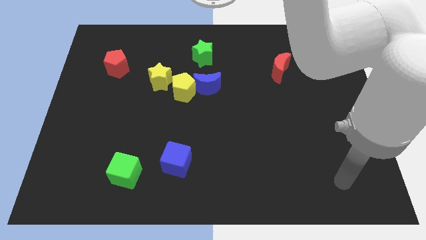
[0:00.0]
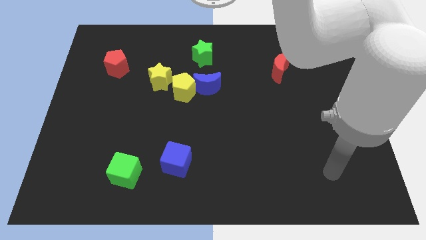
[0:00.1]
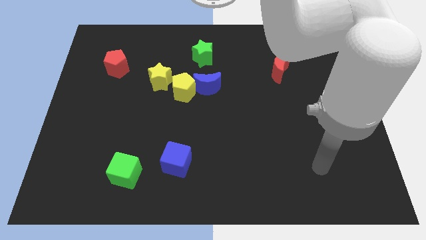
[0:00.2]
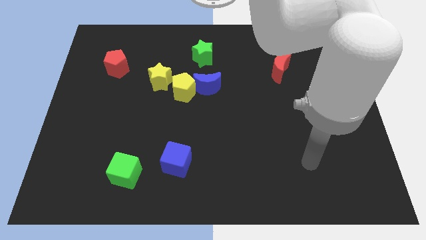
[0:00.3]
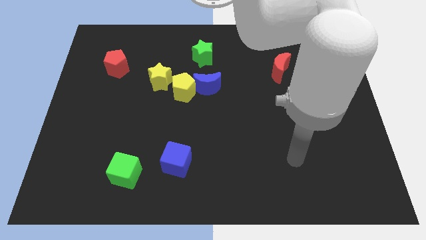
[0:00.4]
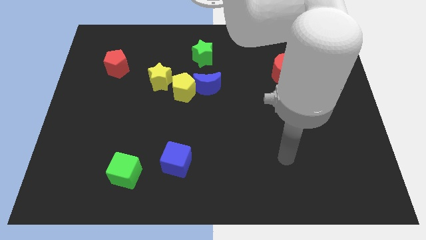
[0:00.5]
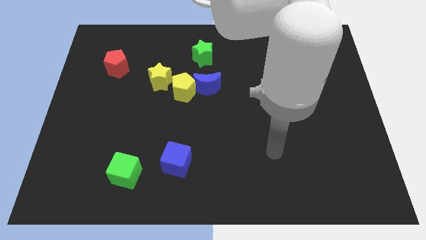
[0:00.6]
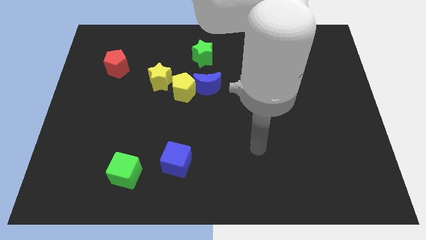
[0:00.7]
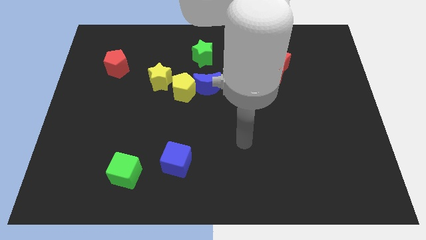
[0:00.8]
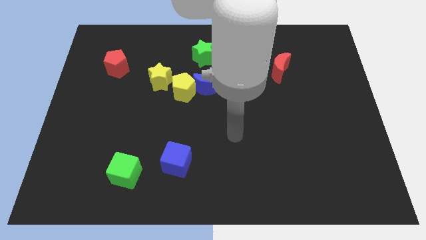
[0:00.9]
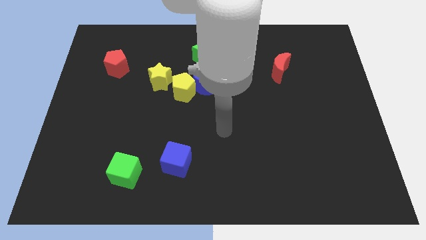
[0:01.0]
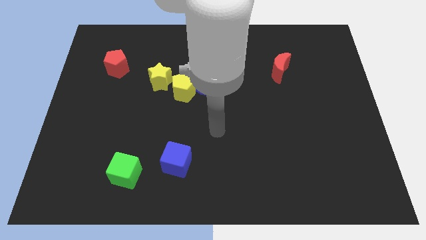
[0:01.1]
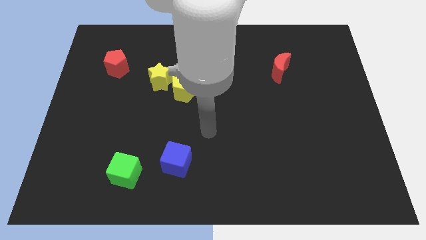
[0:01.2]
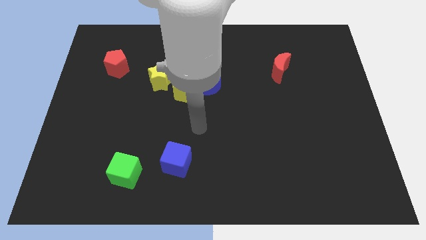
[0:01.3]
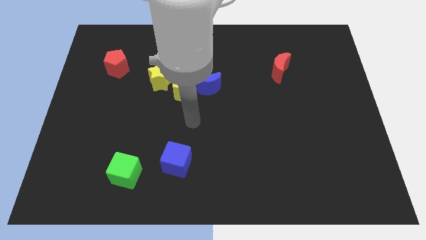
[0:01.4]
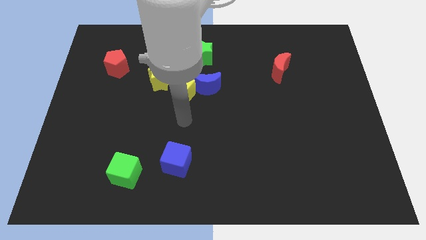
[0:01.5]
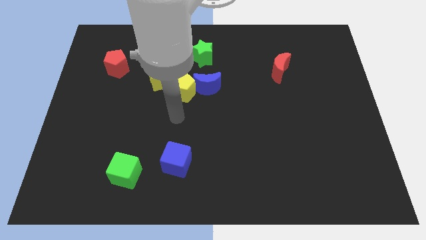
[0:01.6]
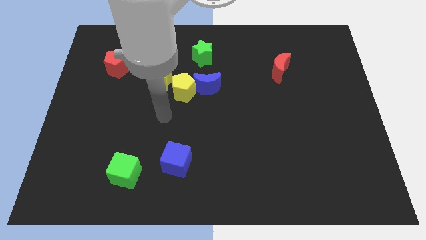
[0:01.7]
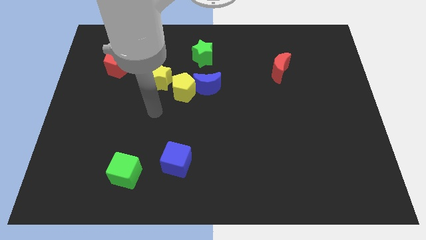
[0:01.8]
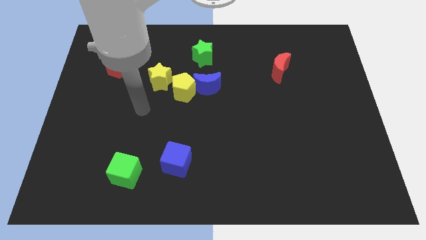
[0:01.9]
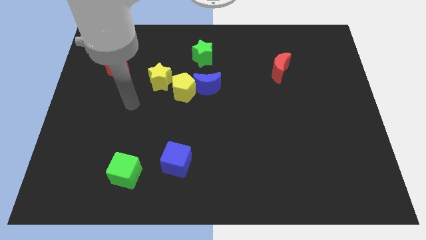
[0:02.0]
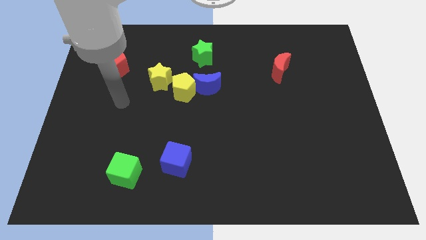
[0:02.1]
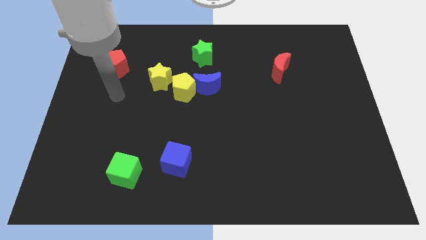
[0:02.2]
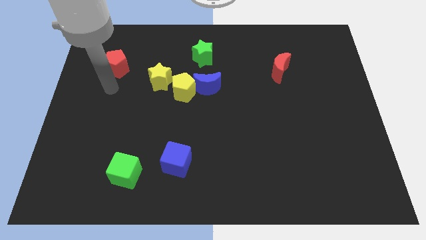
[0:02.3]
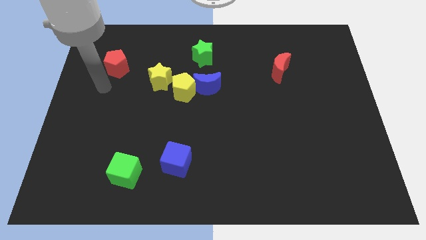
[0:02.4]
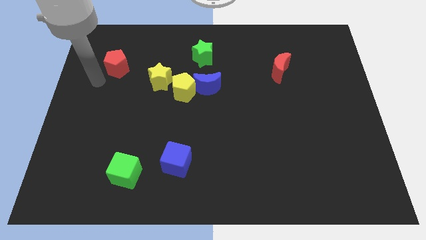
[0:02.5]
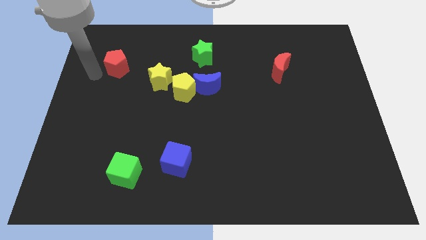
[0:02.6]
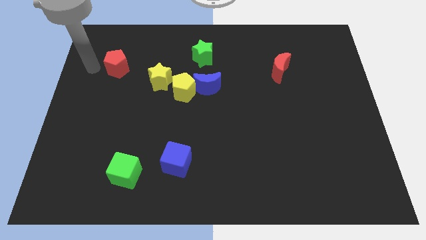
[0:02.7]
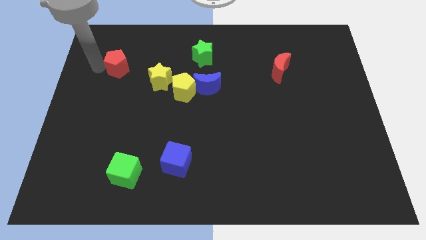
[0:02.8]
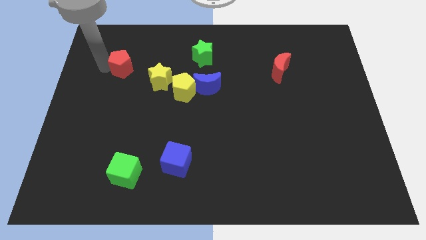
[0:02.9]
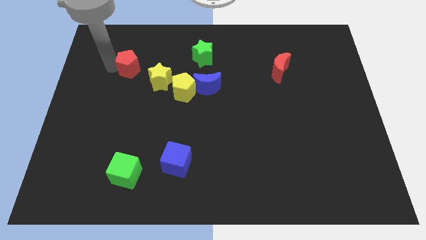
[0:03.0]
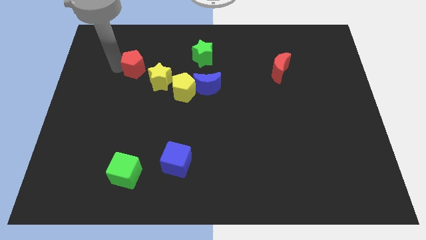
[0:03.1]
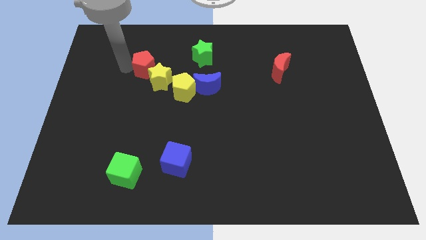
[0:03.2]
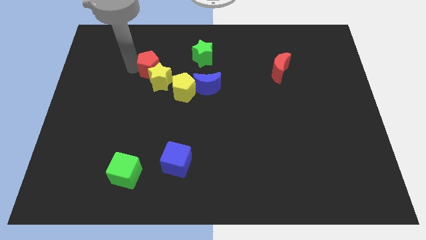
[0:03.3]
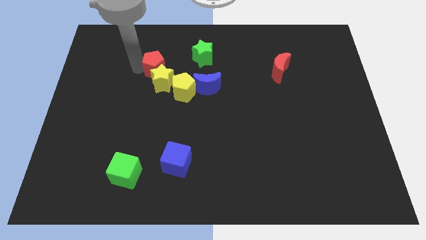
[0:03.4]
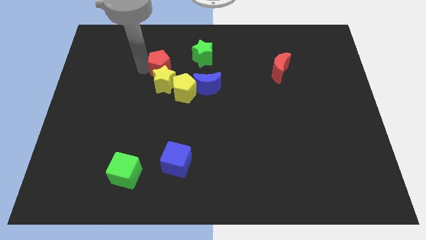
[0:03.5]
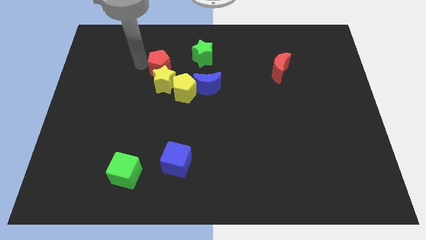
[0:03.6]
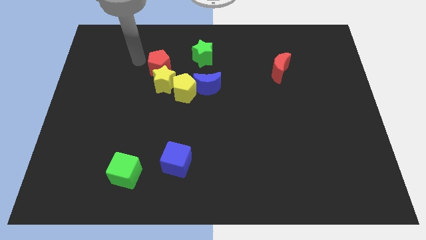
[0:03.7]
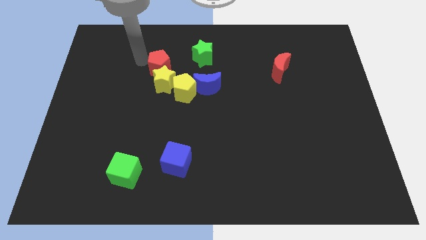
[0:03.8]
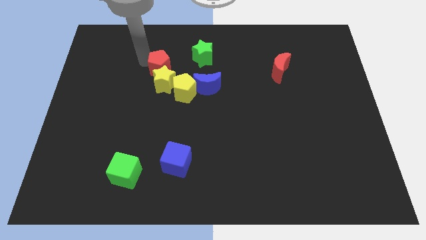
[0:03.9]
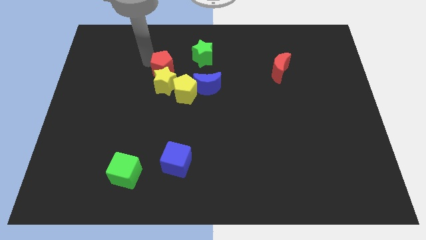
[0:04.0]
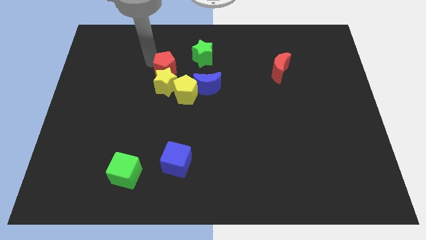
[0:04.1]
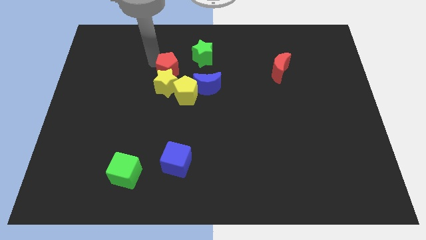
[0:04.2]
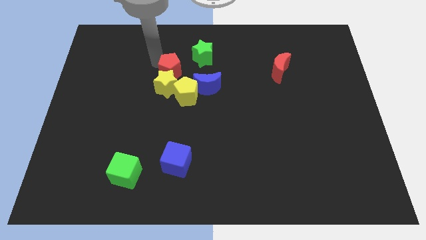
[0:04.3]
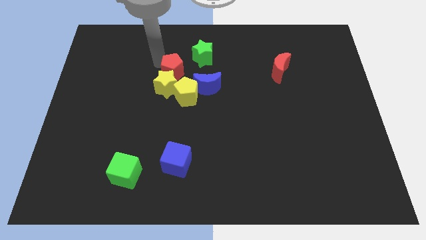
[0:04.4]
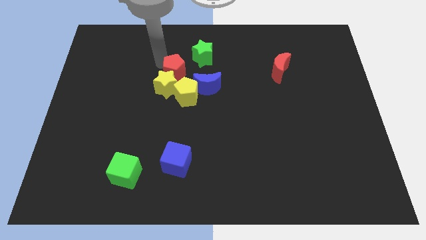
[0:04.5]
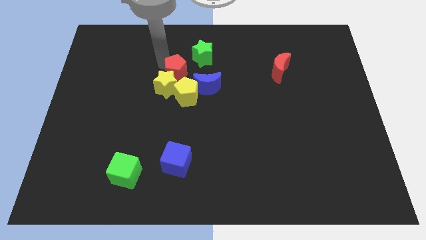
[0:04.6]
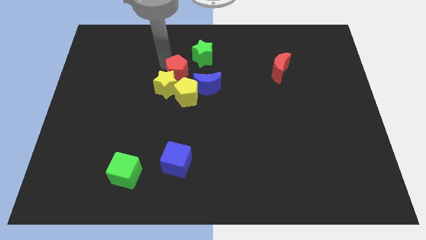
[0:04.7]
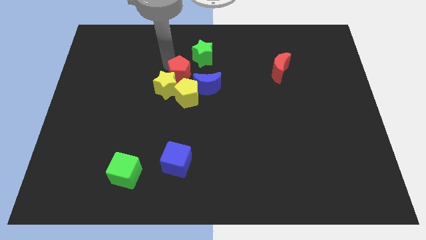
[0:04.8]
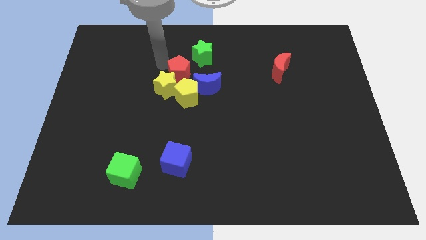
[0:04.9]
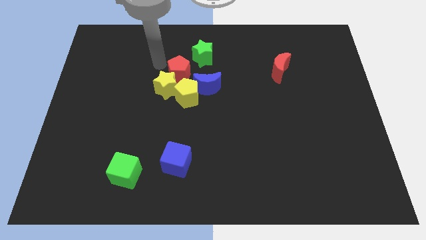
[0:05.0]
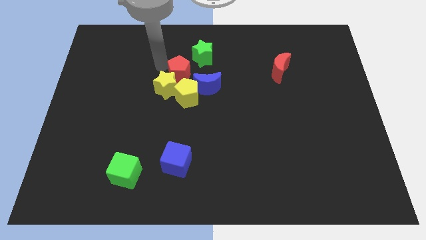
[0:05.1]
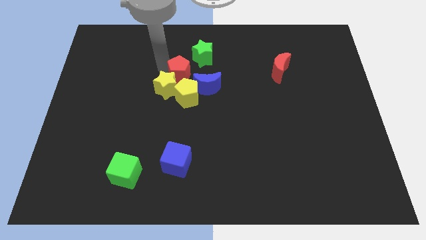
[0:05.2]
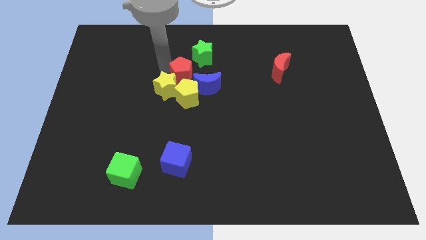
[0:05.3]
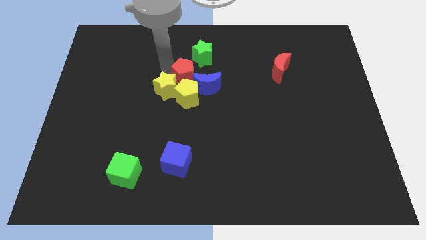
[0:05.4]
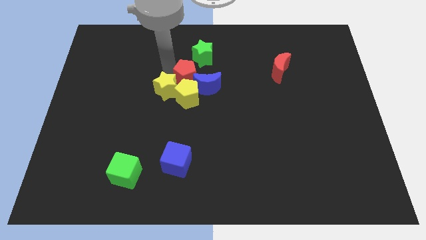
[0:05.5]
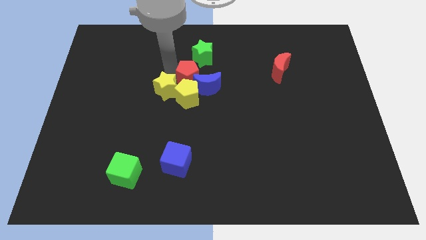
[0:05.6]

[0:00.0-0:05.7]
move the red pentagon next to the blue moon

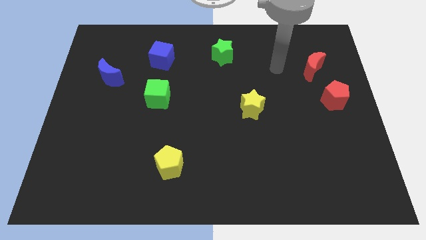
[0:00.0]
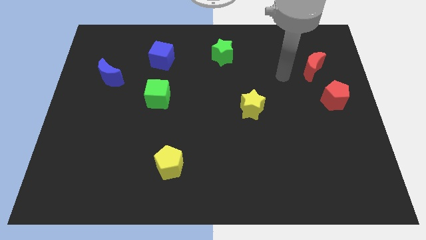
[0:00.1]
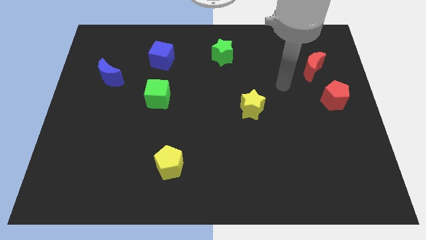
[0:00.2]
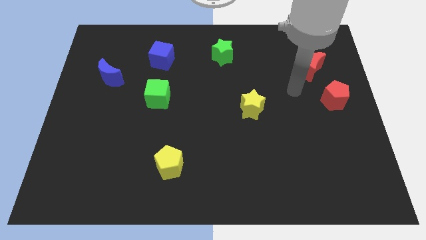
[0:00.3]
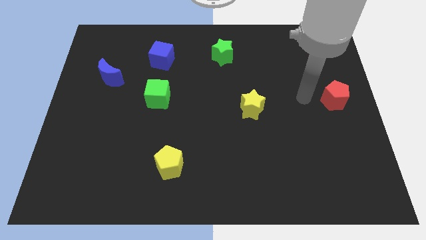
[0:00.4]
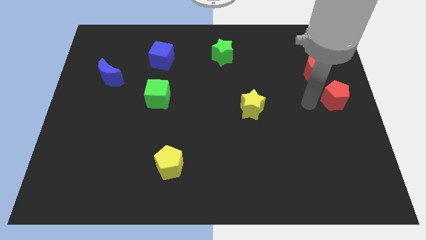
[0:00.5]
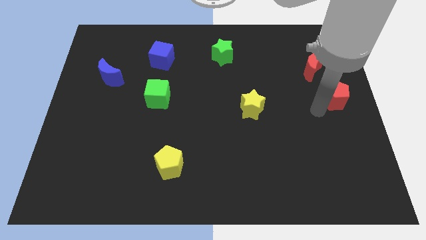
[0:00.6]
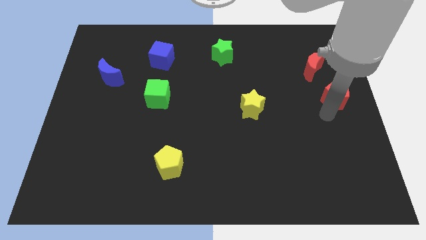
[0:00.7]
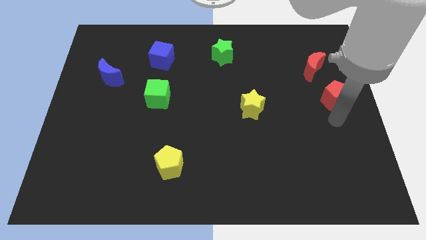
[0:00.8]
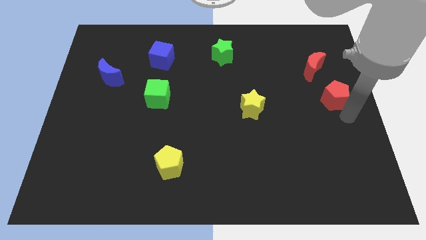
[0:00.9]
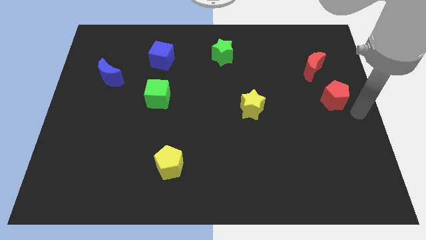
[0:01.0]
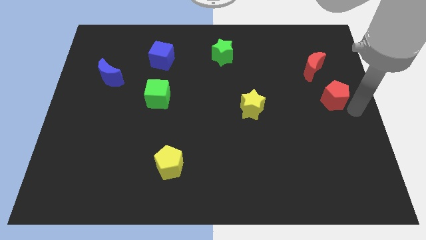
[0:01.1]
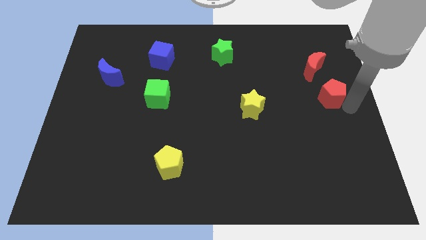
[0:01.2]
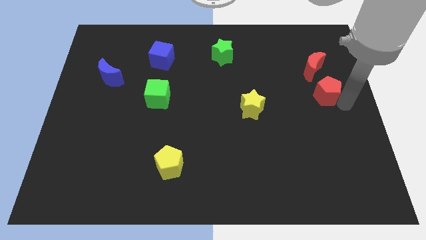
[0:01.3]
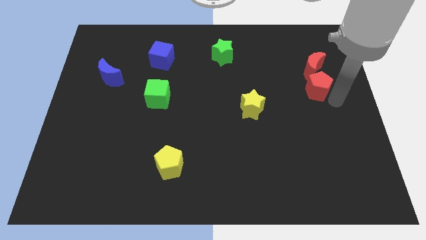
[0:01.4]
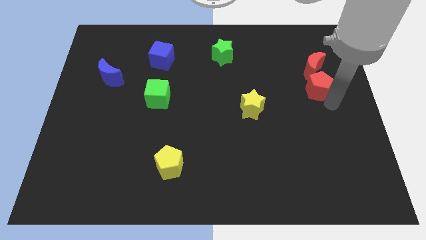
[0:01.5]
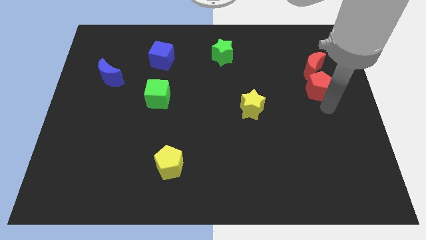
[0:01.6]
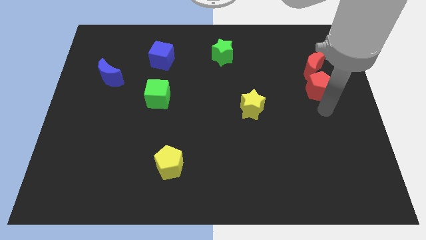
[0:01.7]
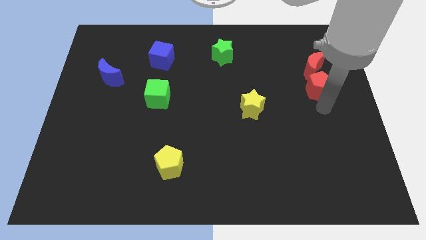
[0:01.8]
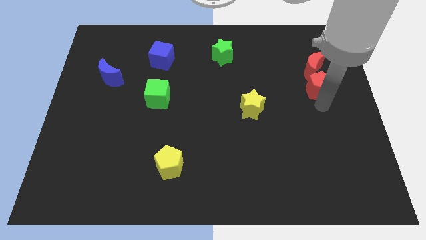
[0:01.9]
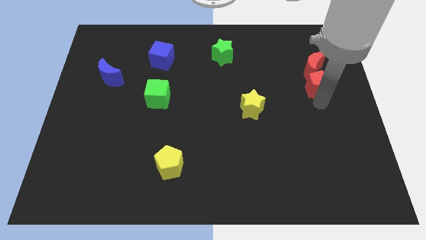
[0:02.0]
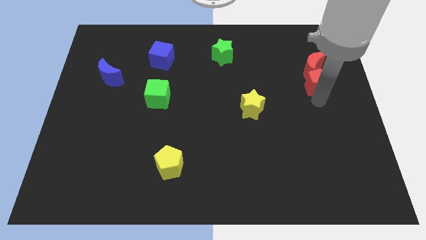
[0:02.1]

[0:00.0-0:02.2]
slide the red pentagon towards the red moon
